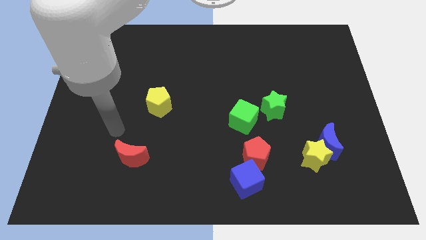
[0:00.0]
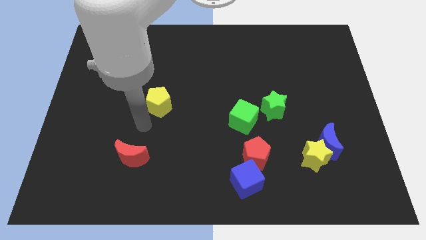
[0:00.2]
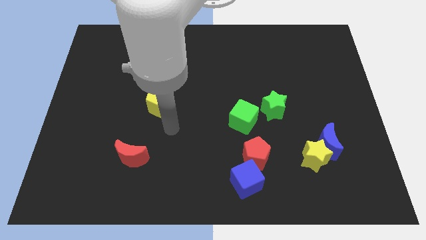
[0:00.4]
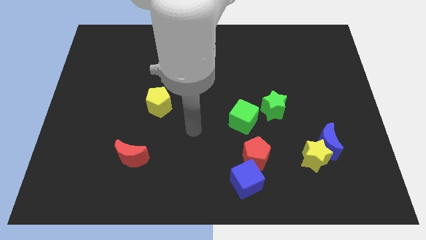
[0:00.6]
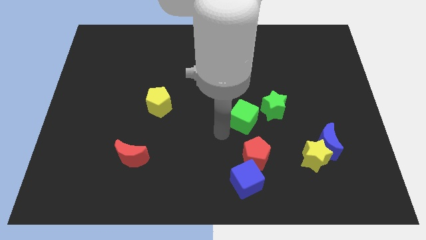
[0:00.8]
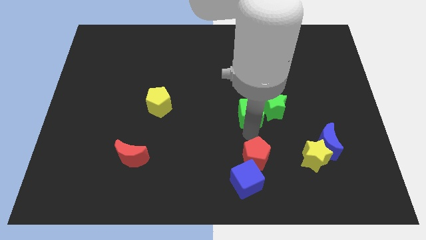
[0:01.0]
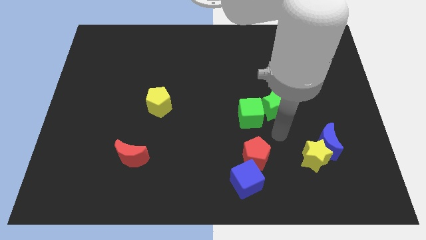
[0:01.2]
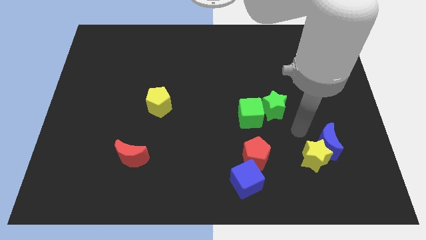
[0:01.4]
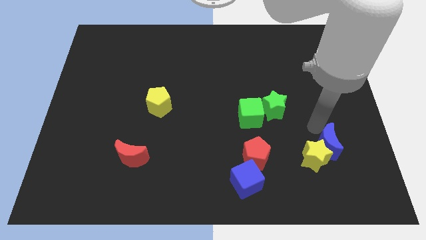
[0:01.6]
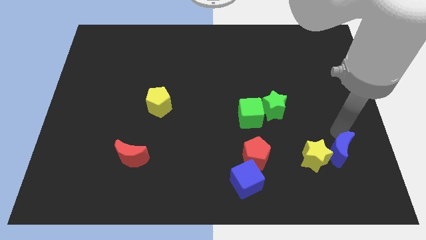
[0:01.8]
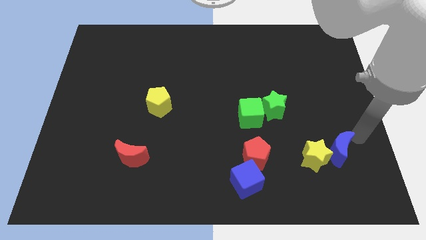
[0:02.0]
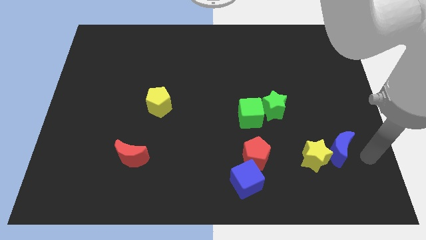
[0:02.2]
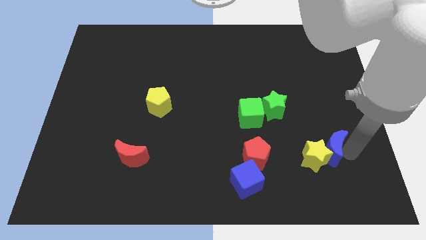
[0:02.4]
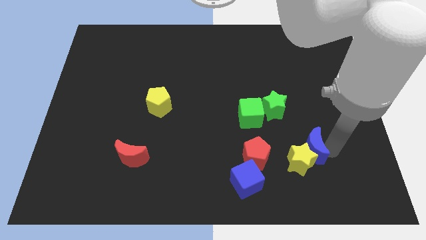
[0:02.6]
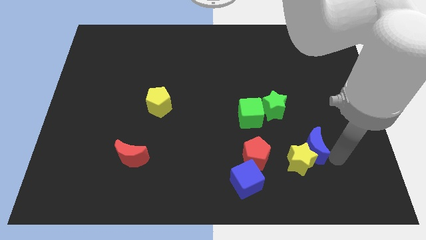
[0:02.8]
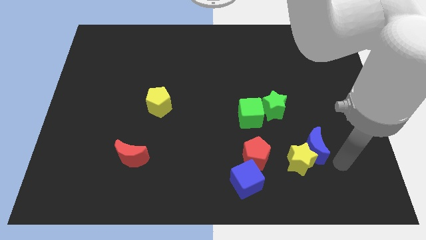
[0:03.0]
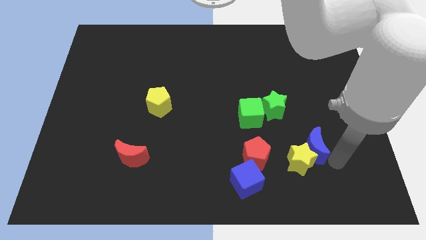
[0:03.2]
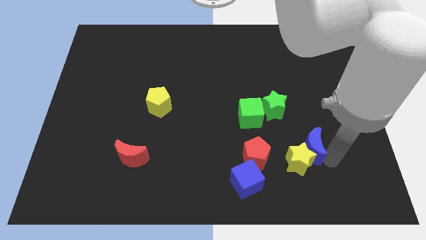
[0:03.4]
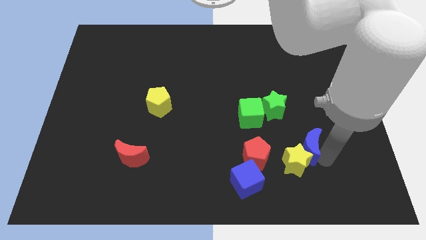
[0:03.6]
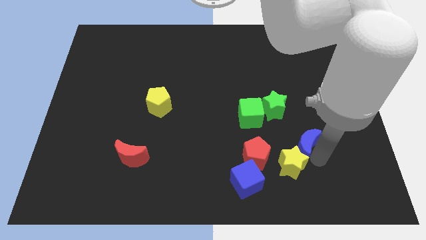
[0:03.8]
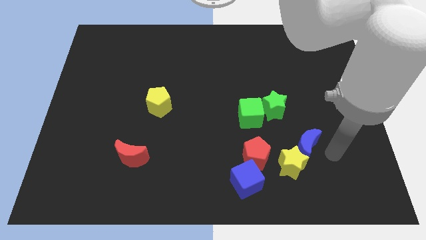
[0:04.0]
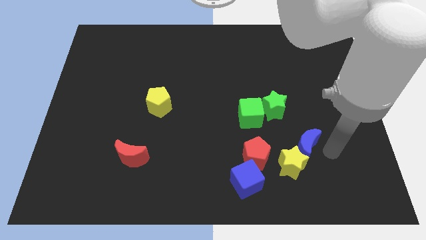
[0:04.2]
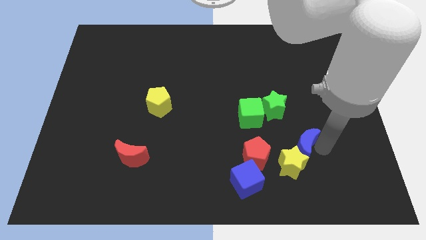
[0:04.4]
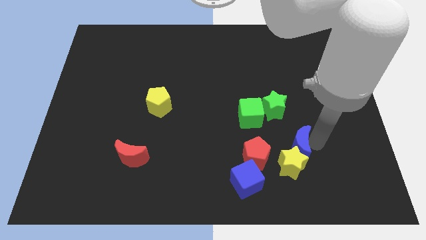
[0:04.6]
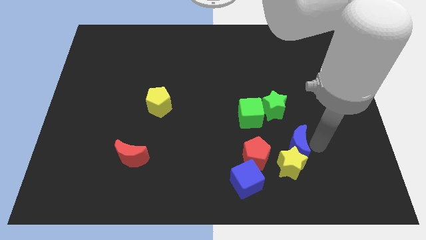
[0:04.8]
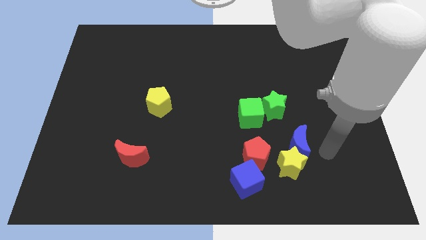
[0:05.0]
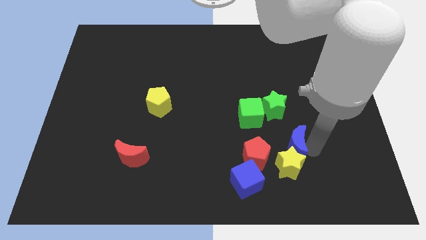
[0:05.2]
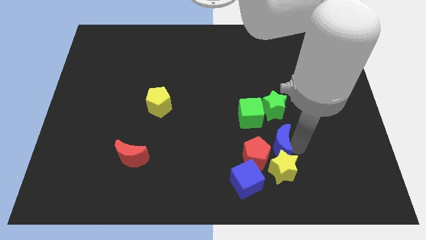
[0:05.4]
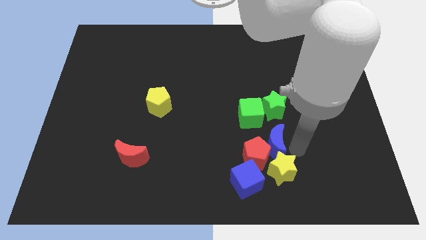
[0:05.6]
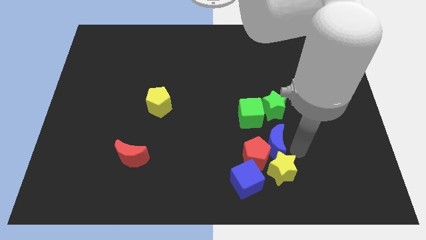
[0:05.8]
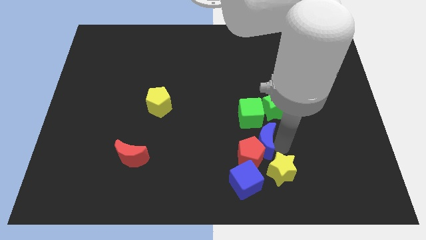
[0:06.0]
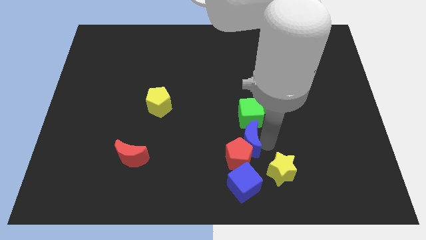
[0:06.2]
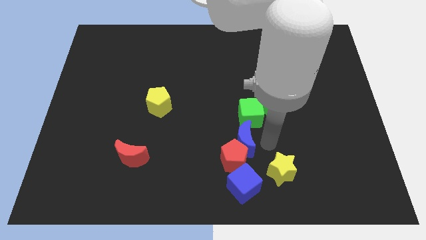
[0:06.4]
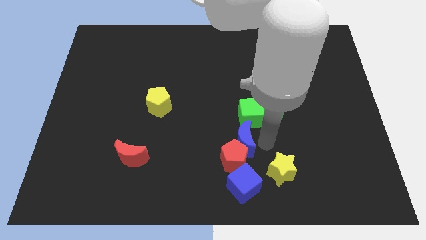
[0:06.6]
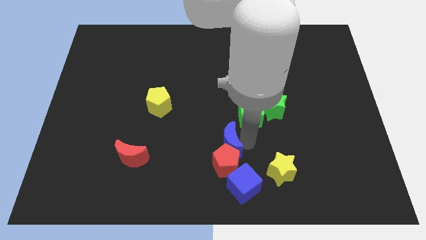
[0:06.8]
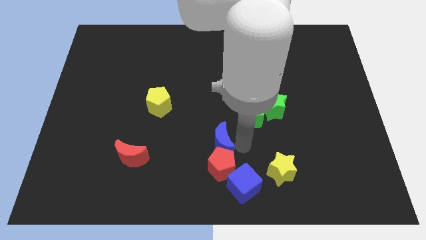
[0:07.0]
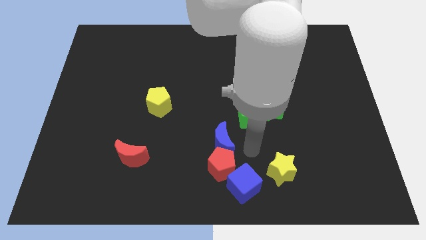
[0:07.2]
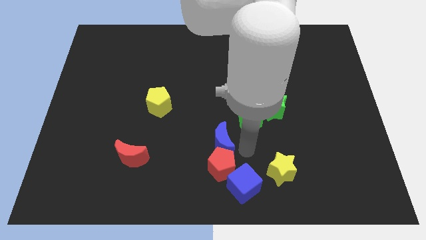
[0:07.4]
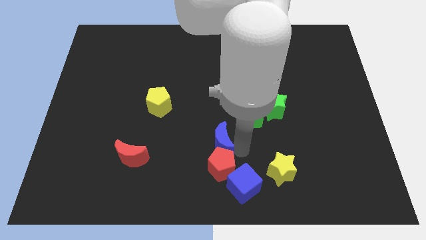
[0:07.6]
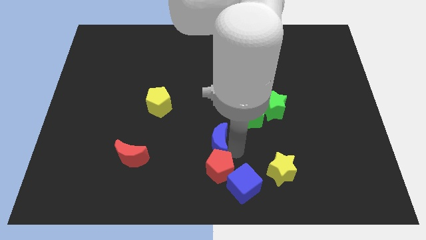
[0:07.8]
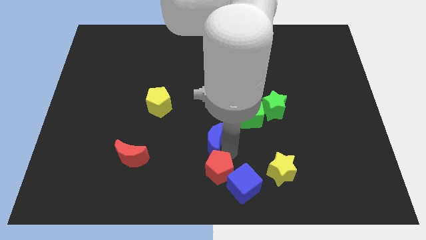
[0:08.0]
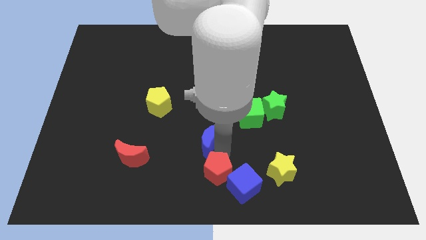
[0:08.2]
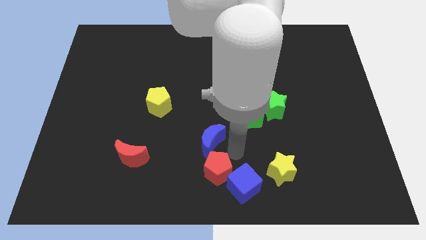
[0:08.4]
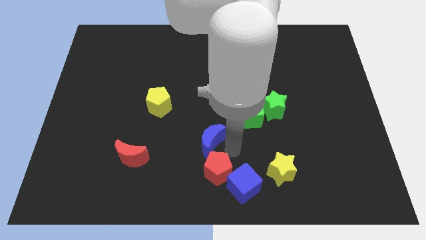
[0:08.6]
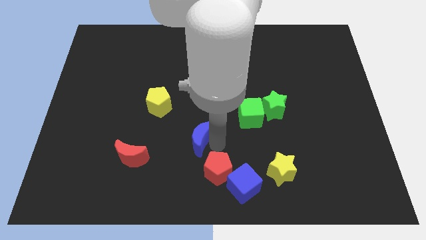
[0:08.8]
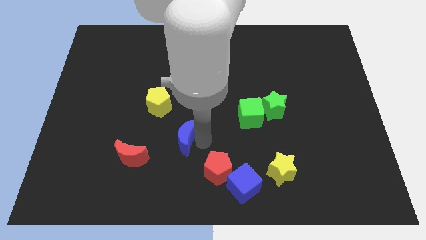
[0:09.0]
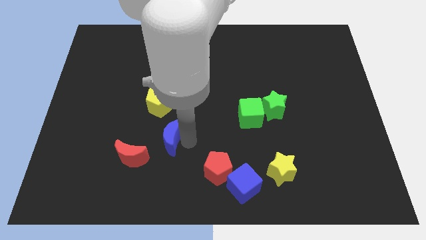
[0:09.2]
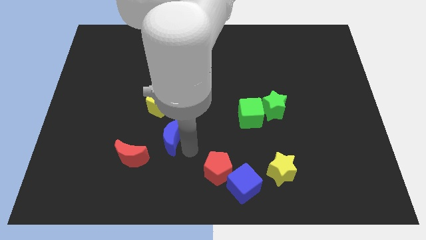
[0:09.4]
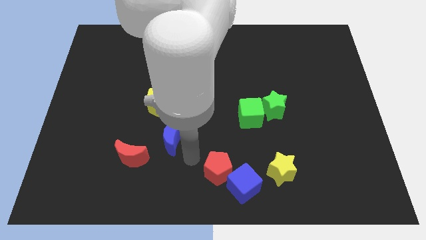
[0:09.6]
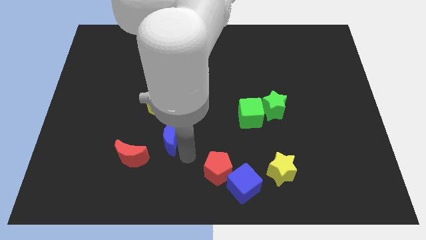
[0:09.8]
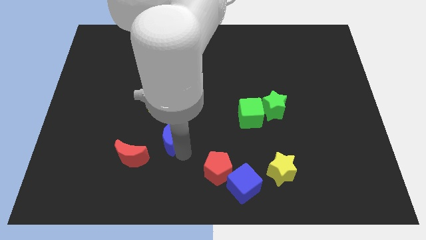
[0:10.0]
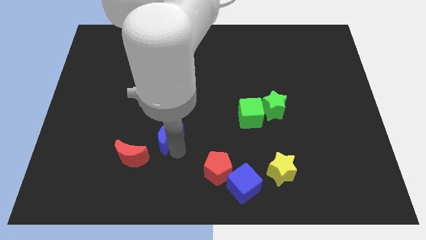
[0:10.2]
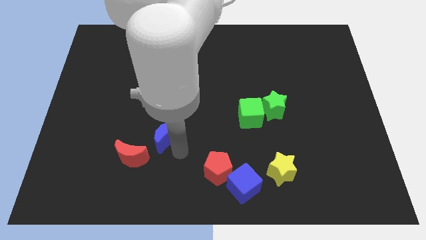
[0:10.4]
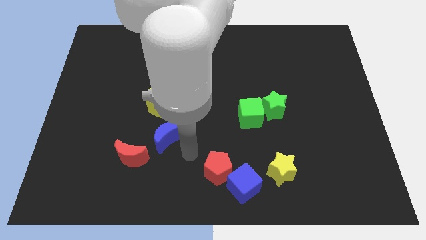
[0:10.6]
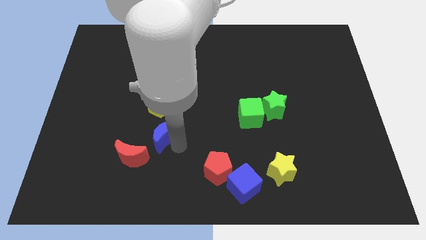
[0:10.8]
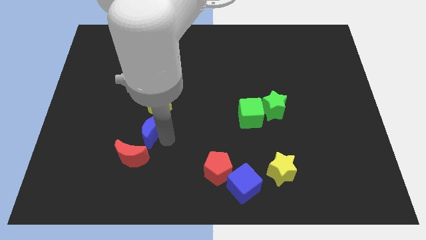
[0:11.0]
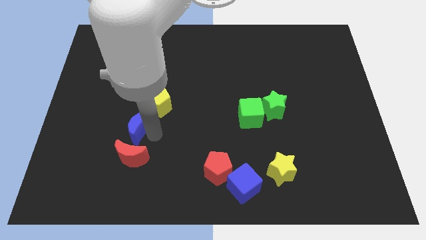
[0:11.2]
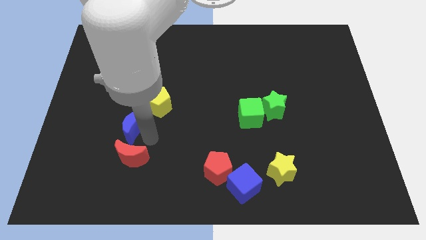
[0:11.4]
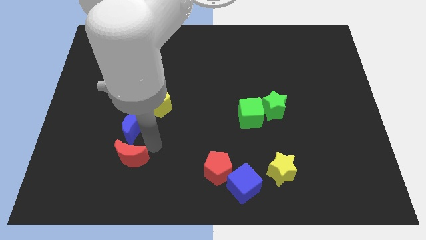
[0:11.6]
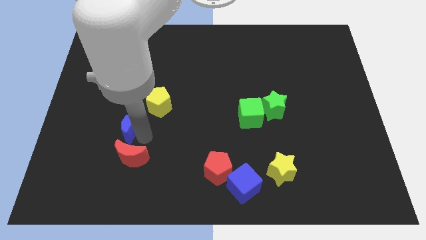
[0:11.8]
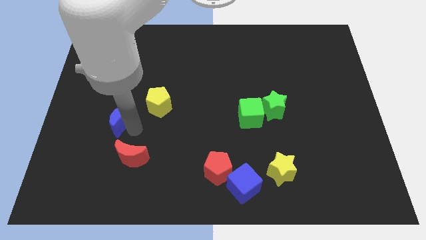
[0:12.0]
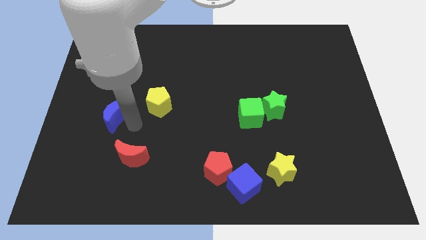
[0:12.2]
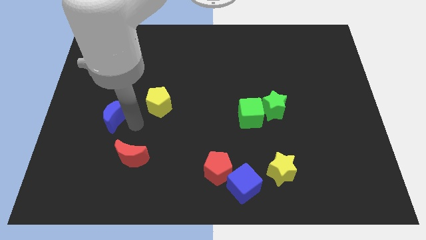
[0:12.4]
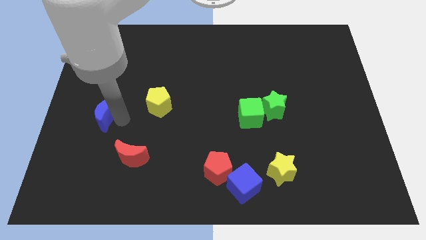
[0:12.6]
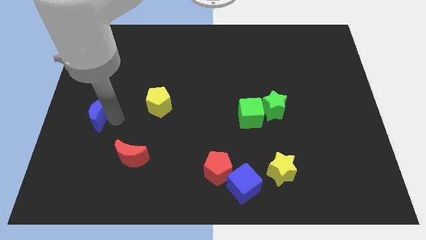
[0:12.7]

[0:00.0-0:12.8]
slide the blue moon to the center left
